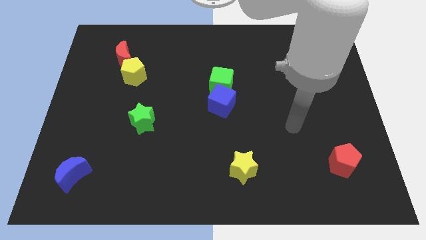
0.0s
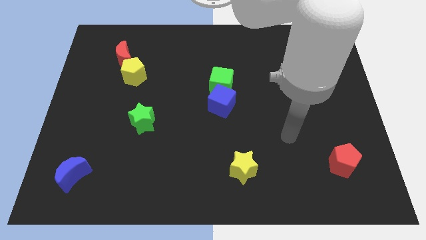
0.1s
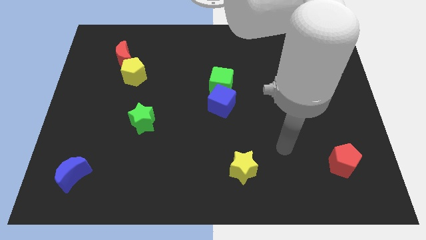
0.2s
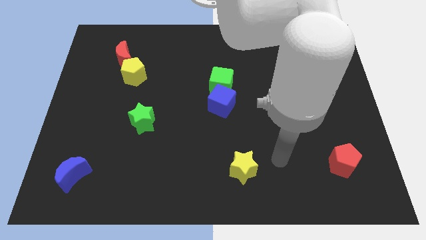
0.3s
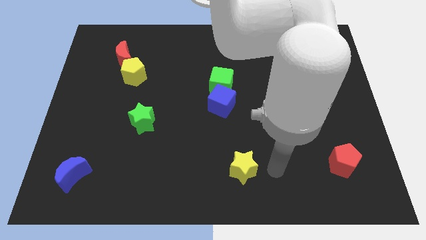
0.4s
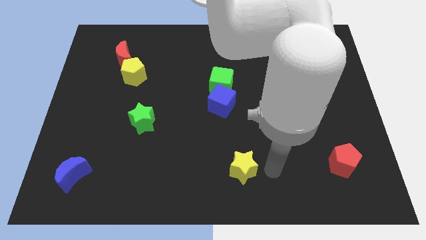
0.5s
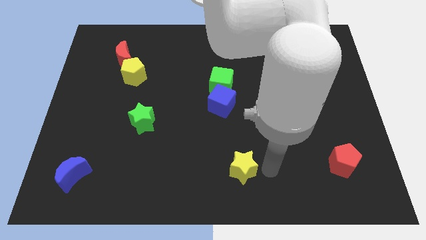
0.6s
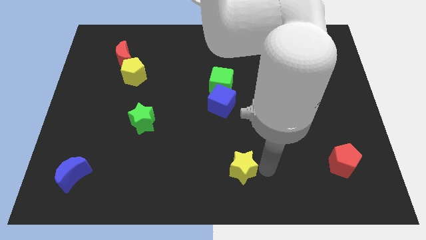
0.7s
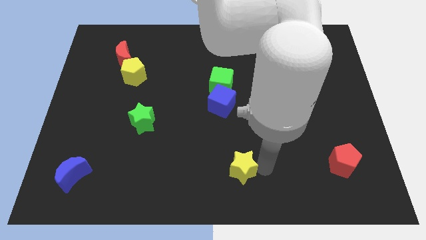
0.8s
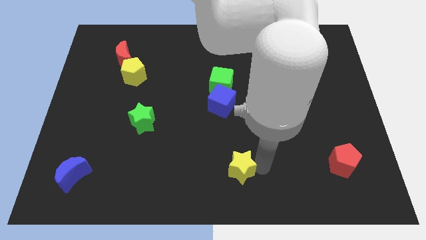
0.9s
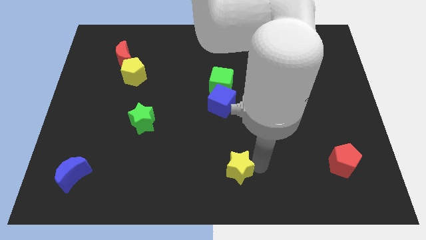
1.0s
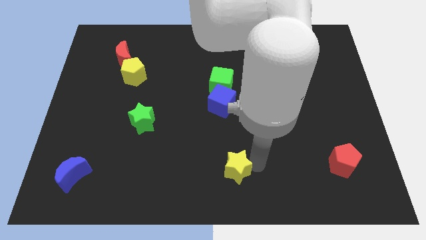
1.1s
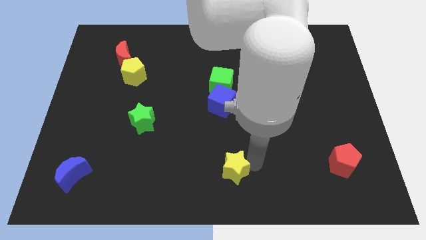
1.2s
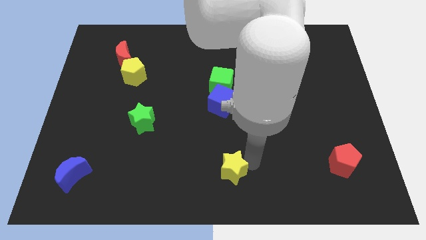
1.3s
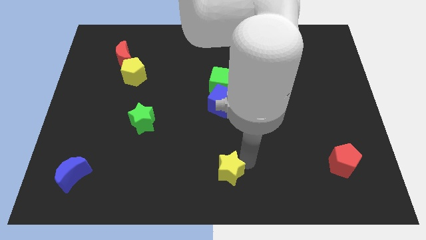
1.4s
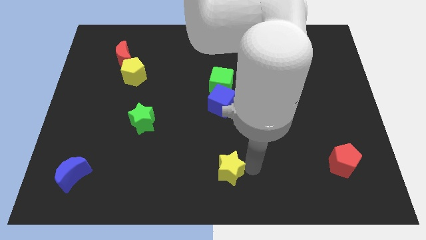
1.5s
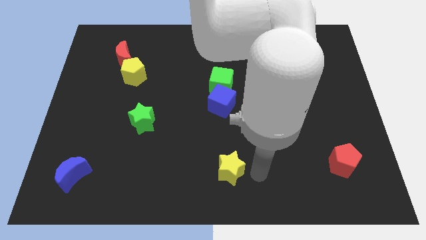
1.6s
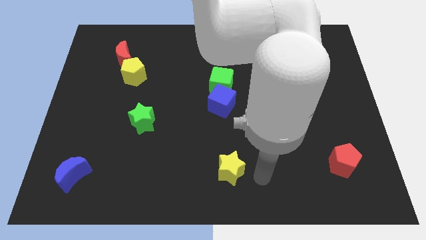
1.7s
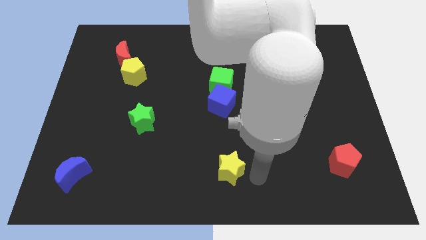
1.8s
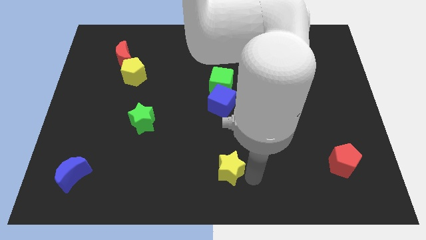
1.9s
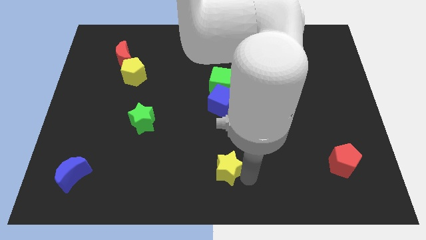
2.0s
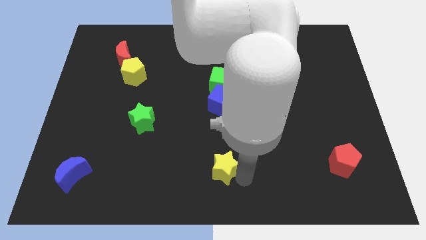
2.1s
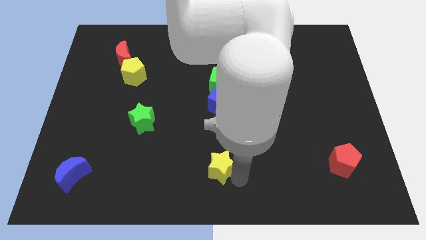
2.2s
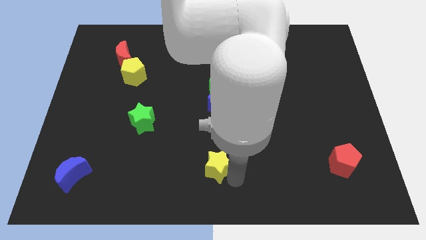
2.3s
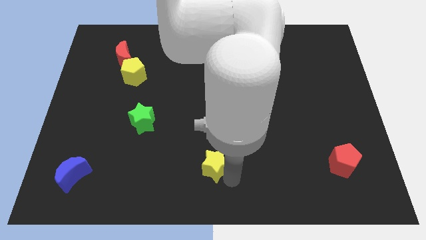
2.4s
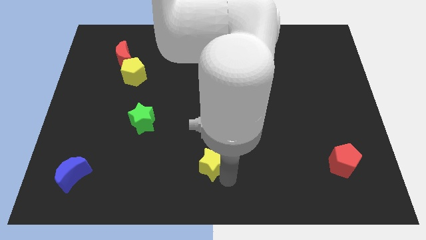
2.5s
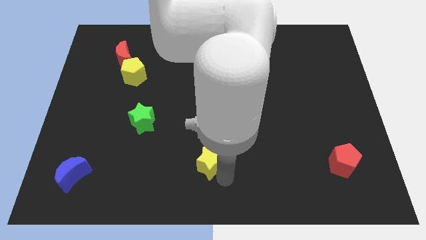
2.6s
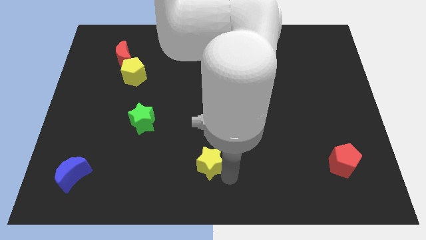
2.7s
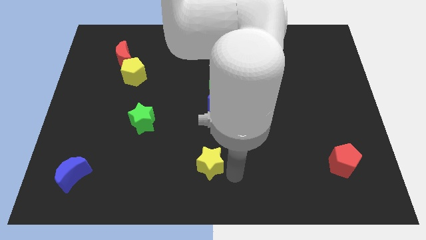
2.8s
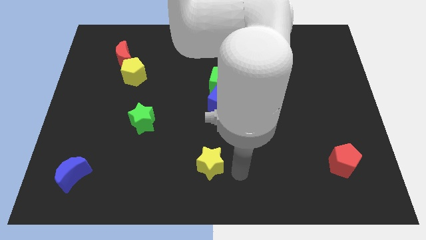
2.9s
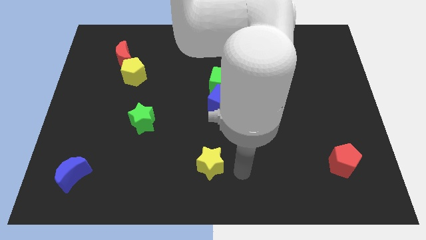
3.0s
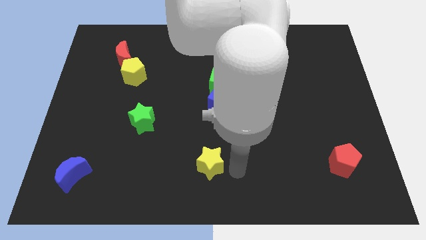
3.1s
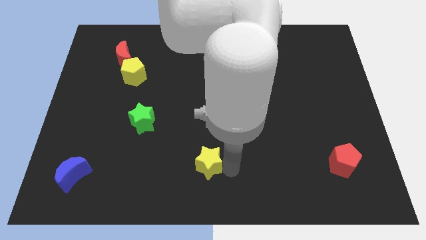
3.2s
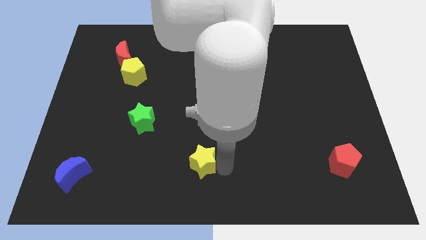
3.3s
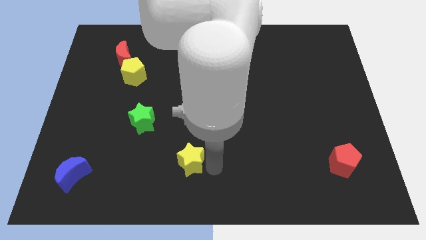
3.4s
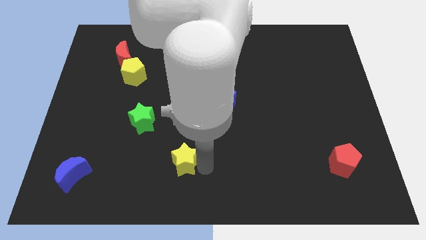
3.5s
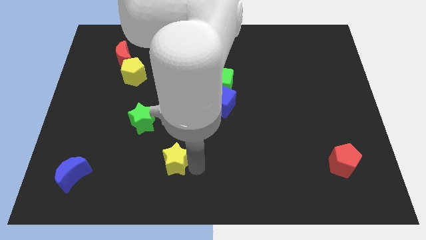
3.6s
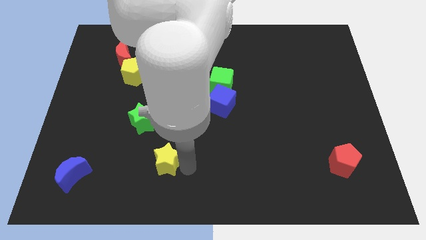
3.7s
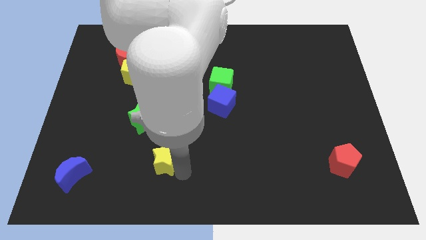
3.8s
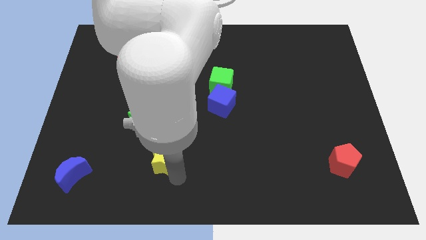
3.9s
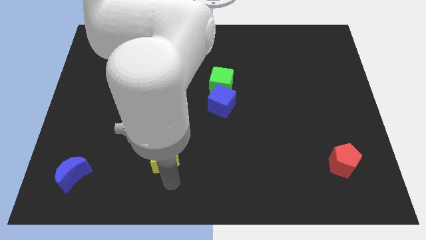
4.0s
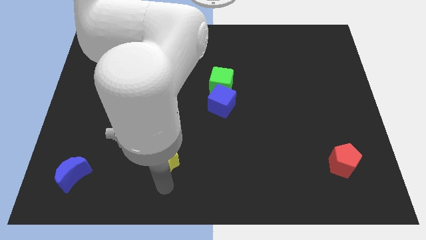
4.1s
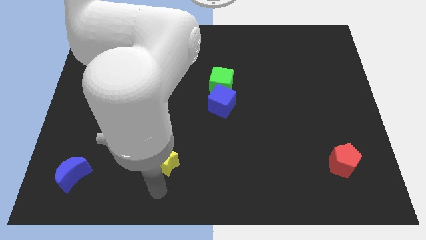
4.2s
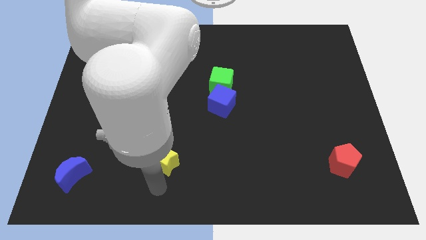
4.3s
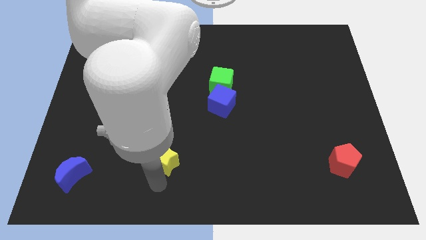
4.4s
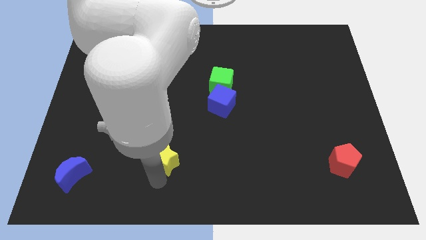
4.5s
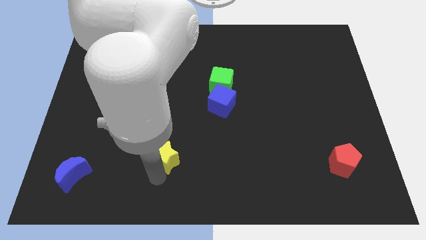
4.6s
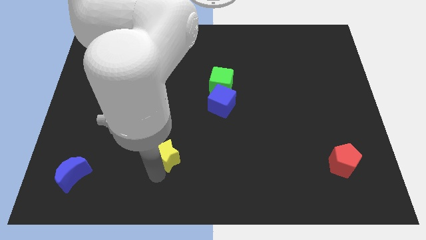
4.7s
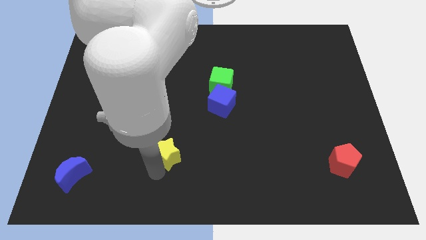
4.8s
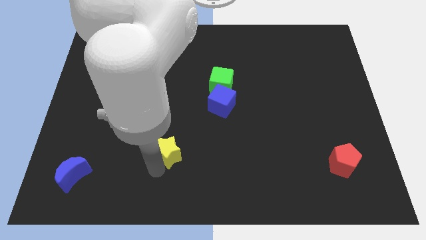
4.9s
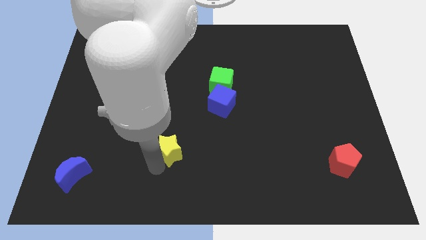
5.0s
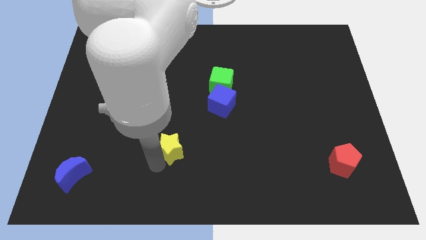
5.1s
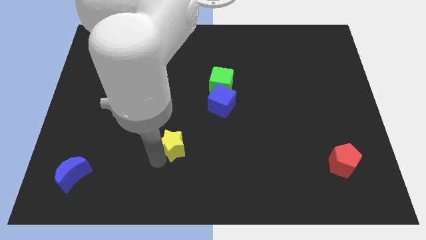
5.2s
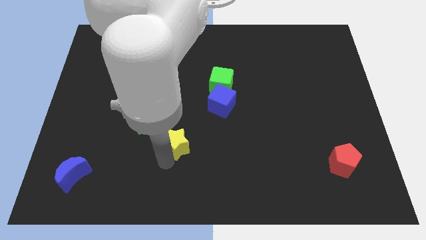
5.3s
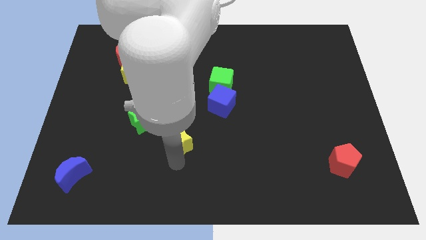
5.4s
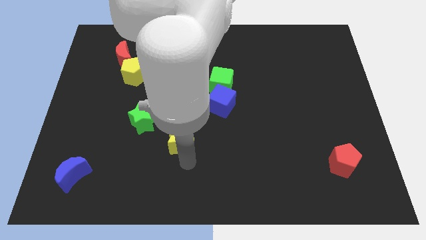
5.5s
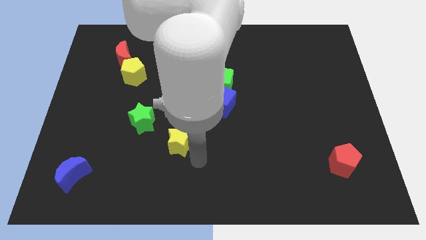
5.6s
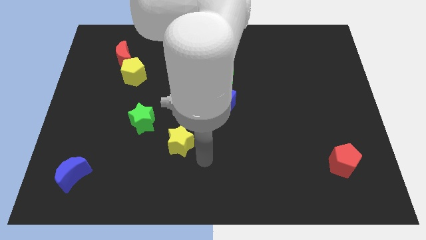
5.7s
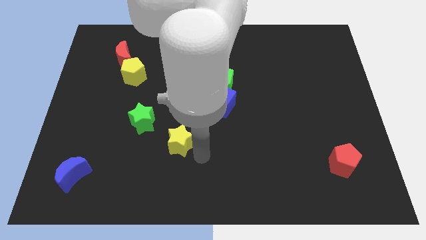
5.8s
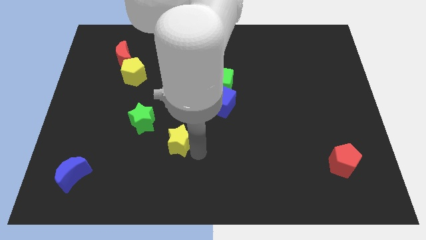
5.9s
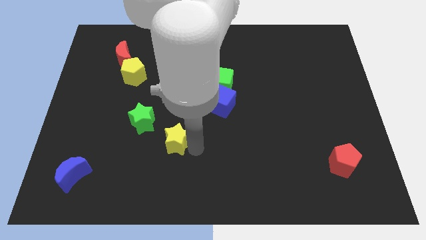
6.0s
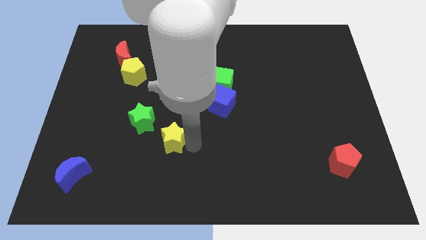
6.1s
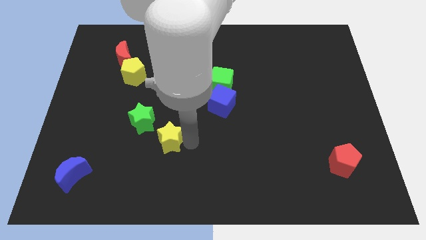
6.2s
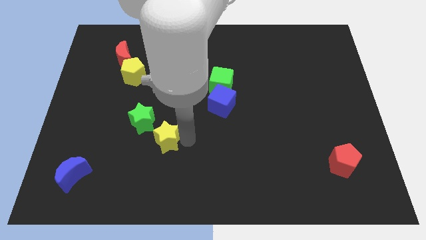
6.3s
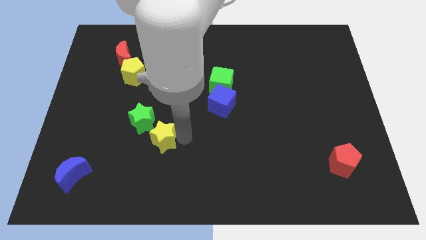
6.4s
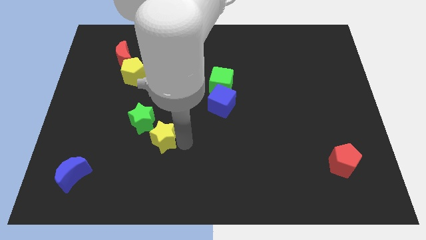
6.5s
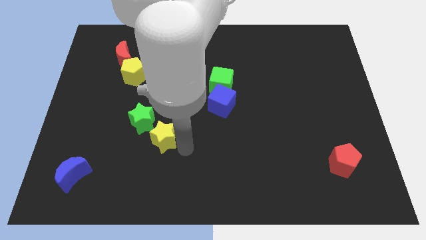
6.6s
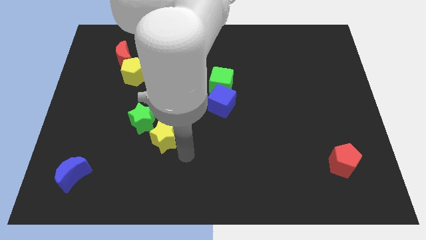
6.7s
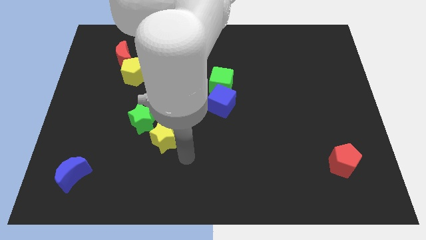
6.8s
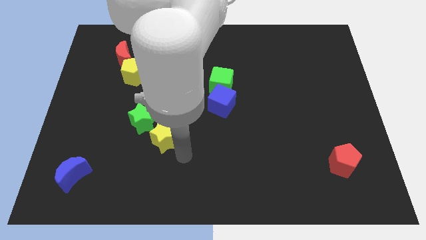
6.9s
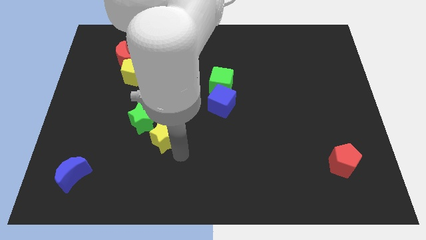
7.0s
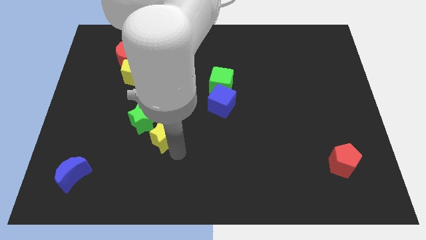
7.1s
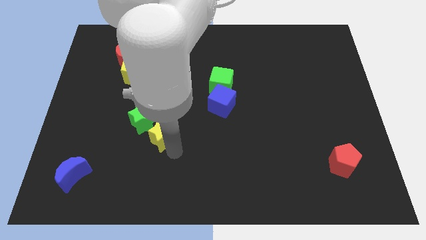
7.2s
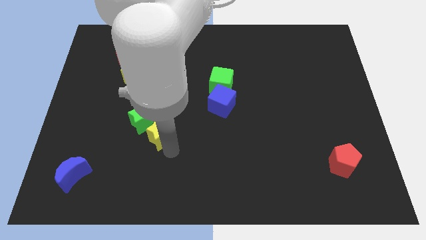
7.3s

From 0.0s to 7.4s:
slide the yellow star close to the green star
